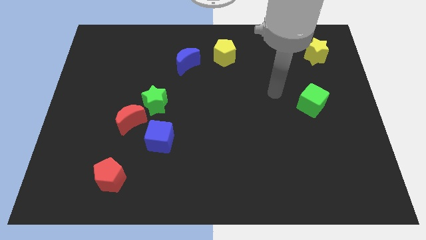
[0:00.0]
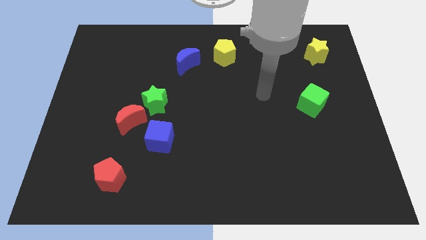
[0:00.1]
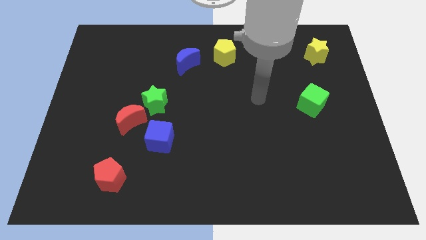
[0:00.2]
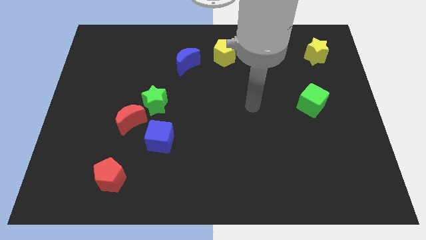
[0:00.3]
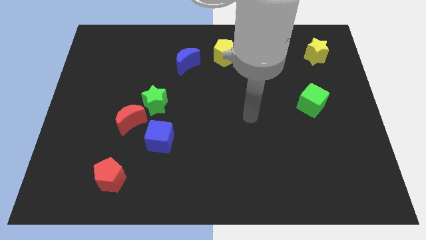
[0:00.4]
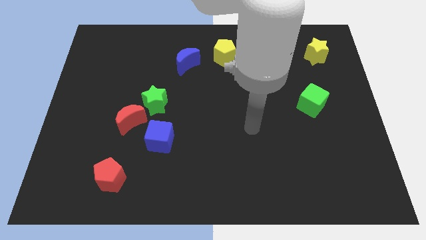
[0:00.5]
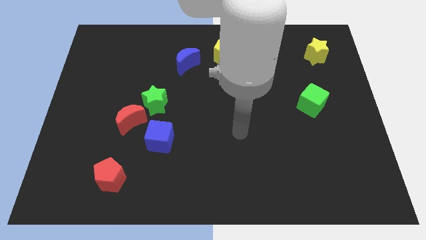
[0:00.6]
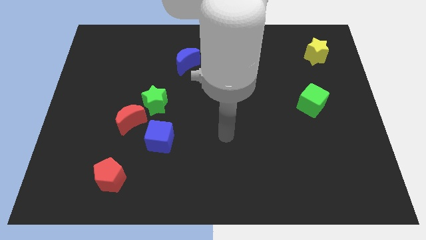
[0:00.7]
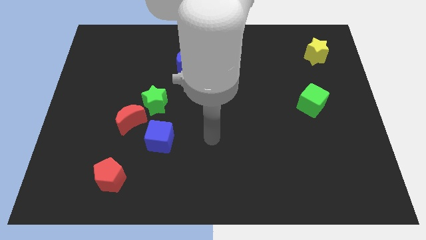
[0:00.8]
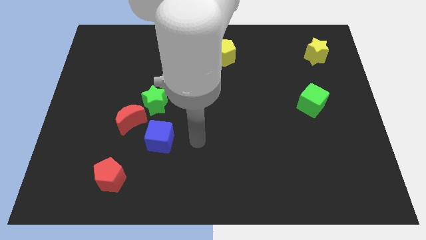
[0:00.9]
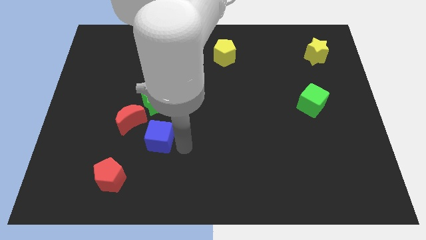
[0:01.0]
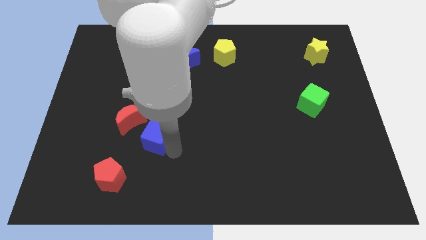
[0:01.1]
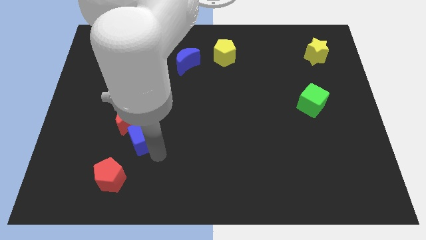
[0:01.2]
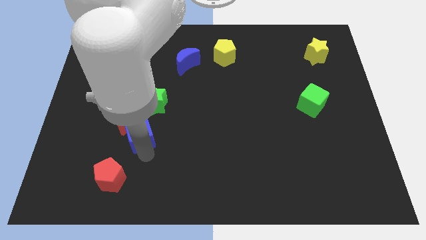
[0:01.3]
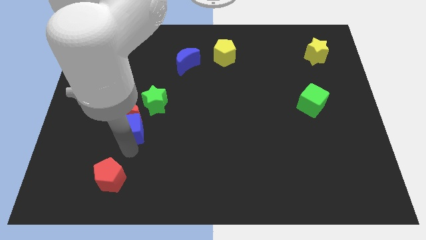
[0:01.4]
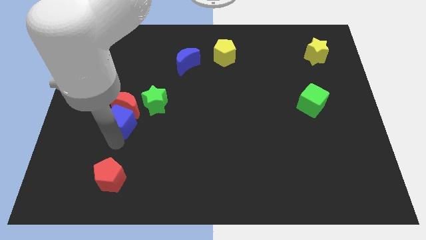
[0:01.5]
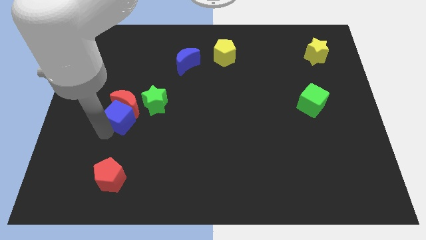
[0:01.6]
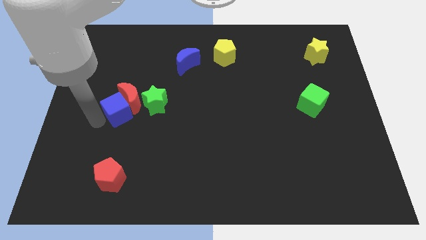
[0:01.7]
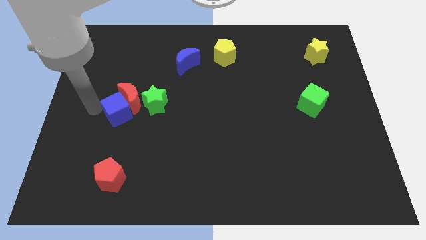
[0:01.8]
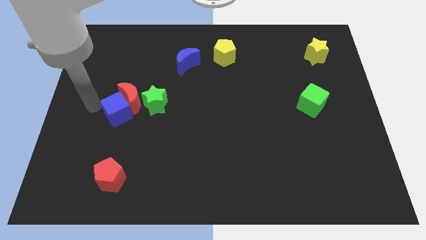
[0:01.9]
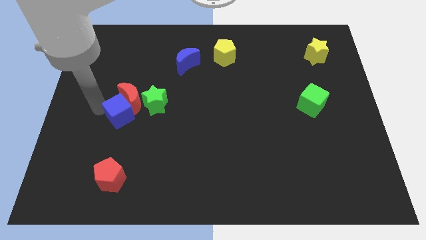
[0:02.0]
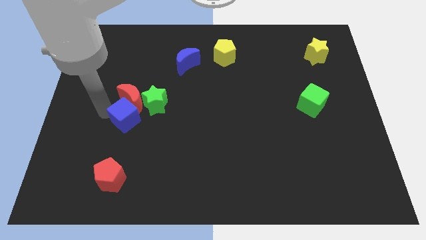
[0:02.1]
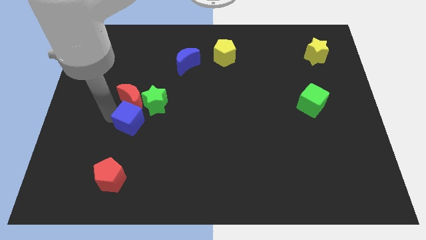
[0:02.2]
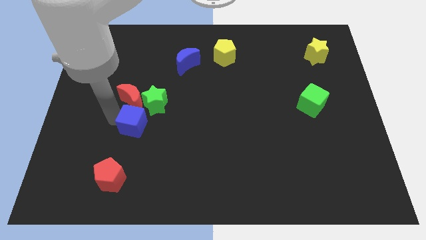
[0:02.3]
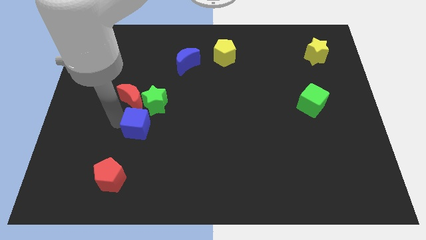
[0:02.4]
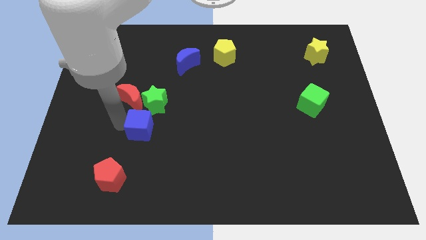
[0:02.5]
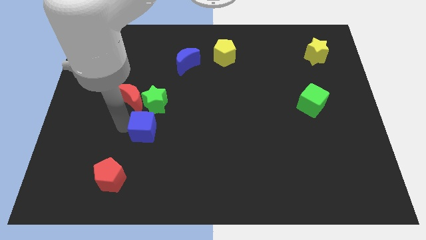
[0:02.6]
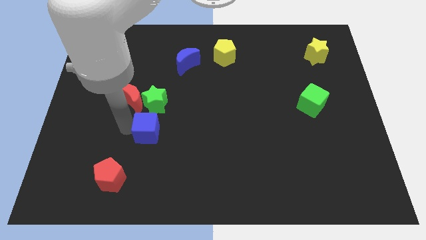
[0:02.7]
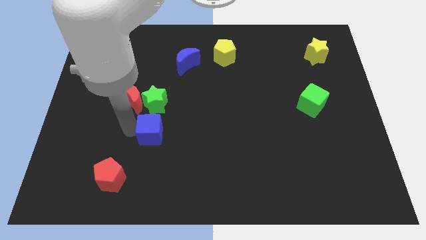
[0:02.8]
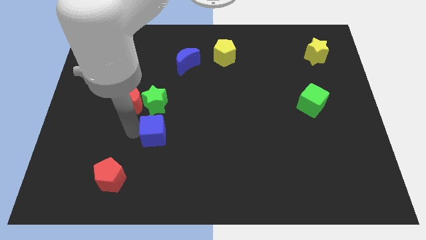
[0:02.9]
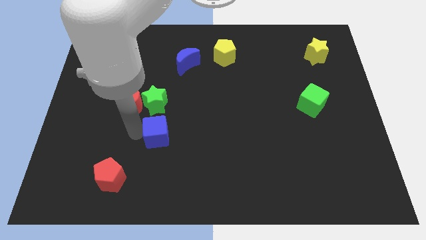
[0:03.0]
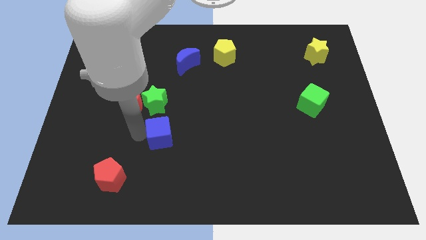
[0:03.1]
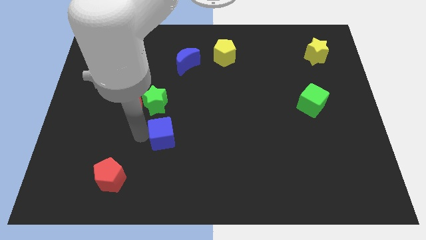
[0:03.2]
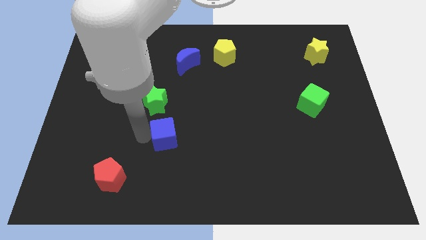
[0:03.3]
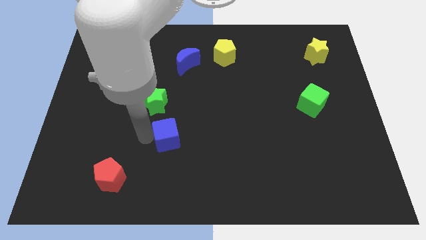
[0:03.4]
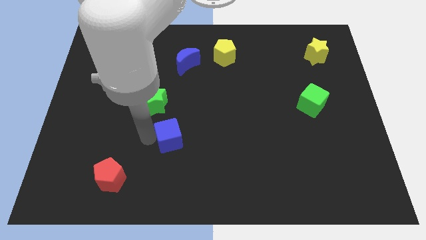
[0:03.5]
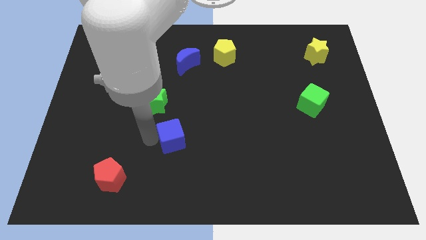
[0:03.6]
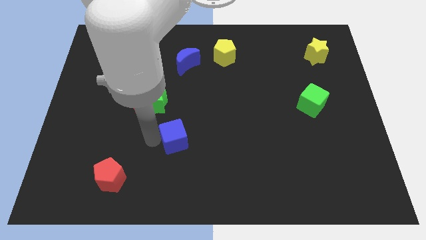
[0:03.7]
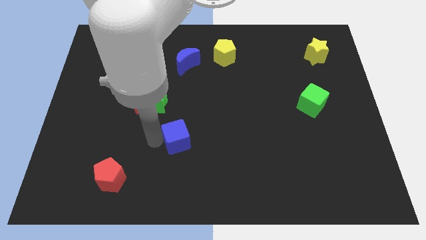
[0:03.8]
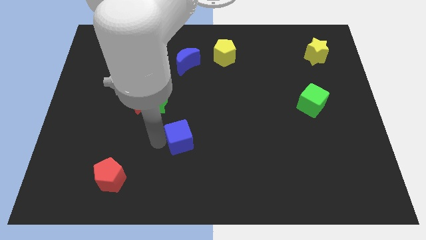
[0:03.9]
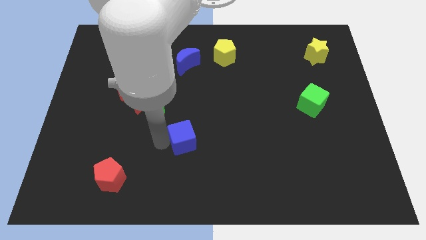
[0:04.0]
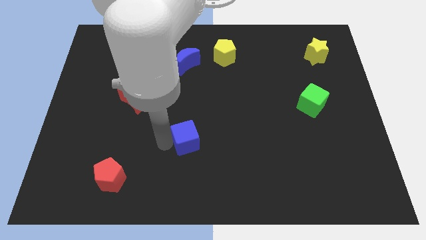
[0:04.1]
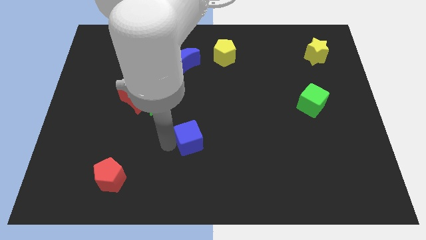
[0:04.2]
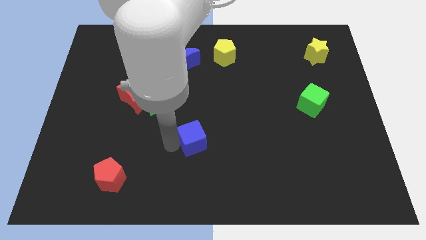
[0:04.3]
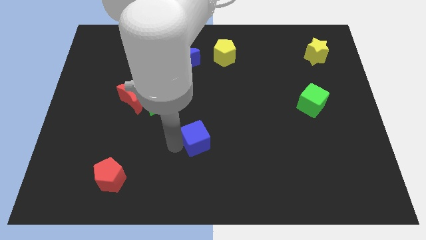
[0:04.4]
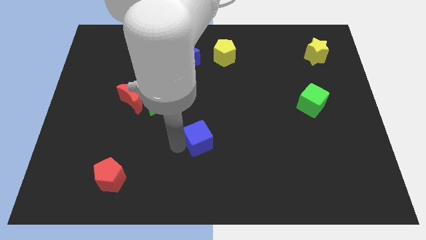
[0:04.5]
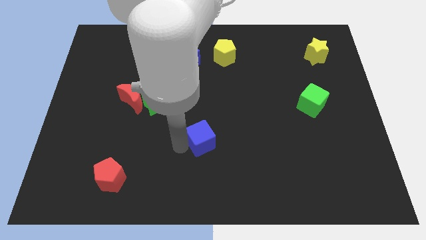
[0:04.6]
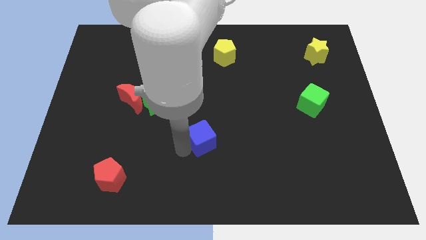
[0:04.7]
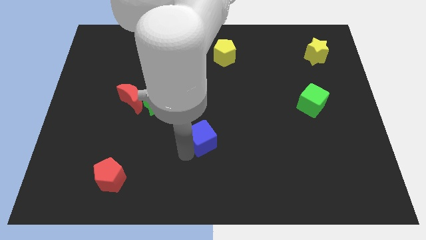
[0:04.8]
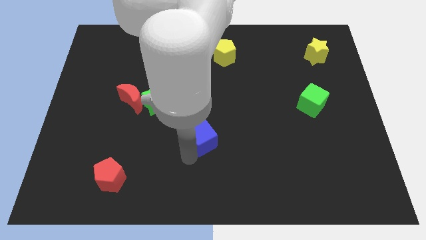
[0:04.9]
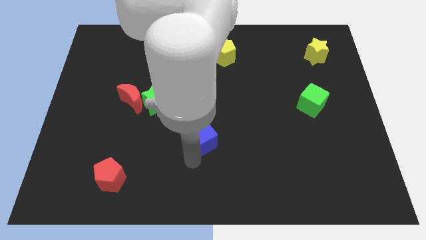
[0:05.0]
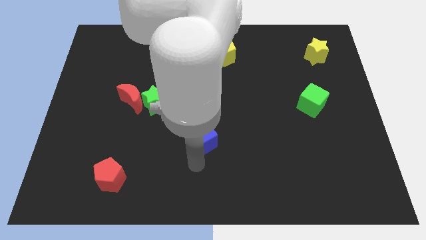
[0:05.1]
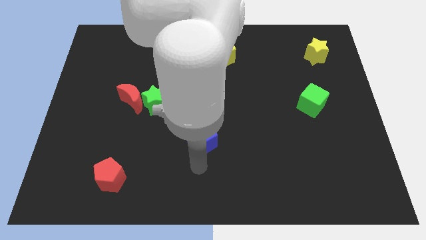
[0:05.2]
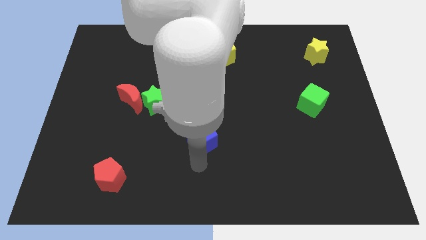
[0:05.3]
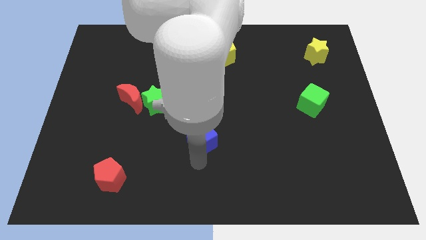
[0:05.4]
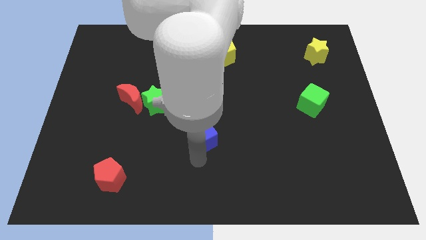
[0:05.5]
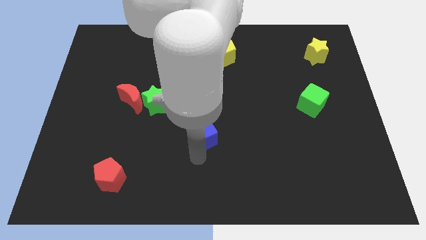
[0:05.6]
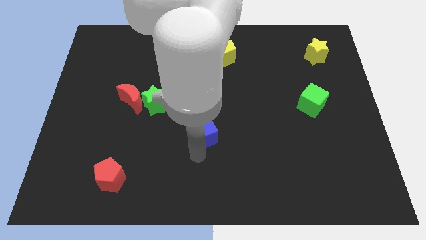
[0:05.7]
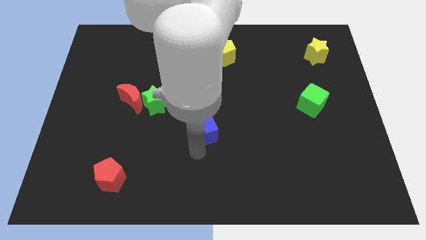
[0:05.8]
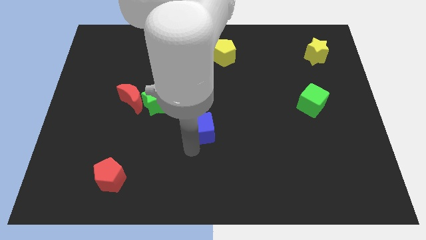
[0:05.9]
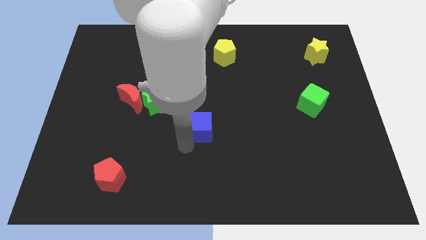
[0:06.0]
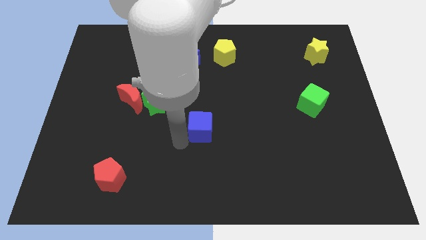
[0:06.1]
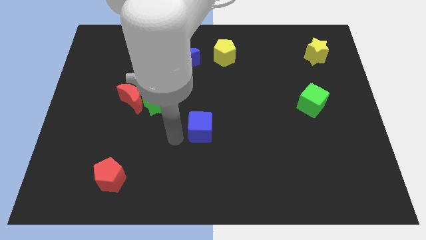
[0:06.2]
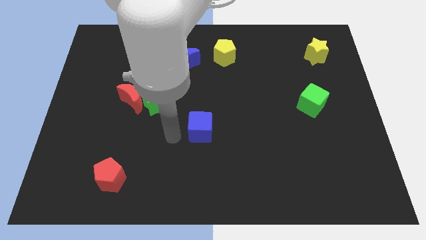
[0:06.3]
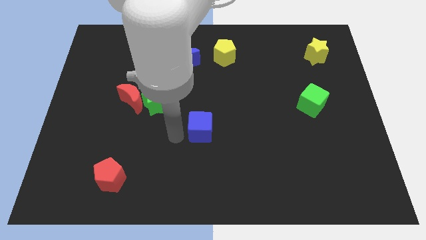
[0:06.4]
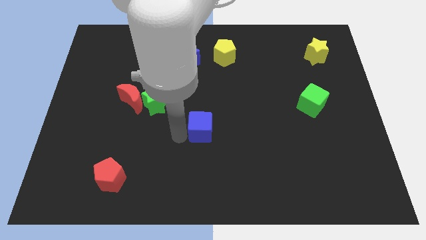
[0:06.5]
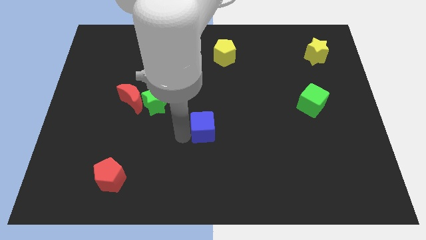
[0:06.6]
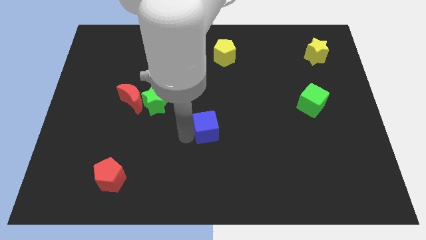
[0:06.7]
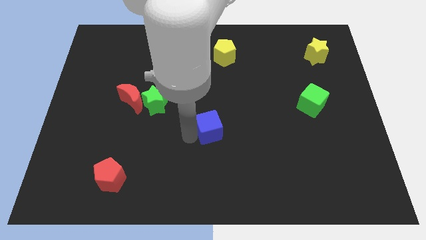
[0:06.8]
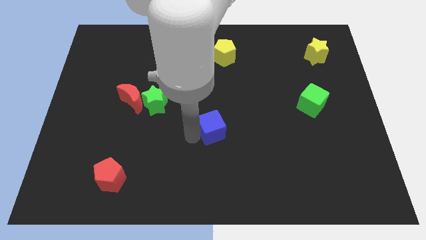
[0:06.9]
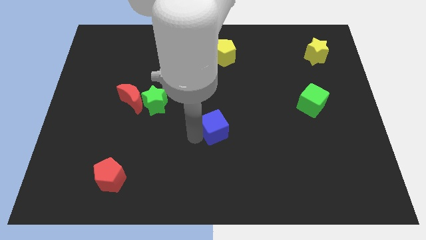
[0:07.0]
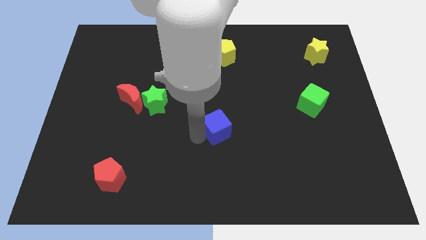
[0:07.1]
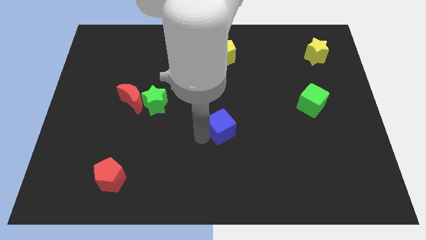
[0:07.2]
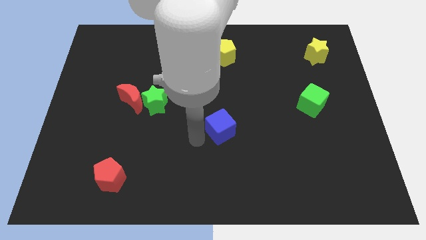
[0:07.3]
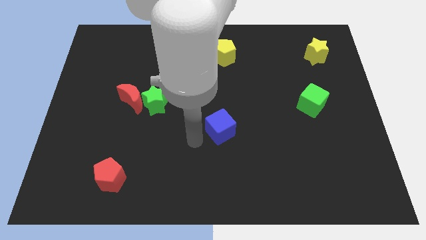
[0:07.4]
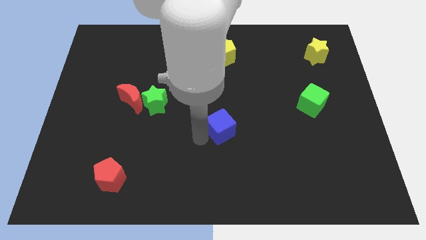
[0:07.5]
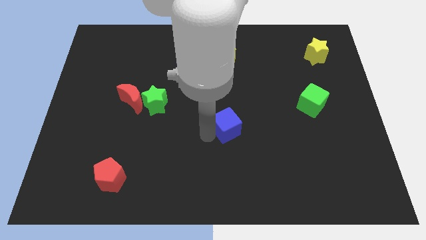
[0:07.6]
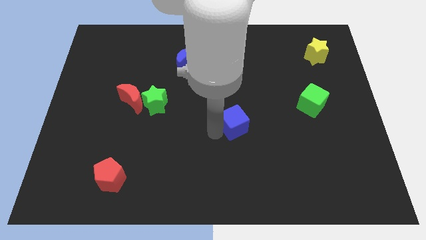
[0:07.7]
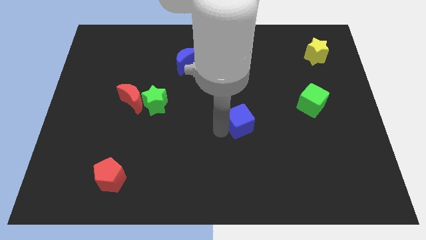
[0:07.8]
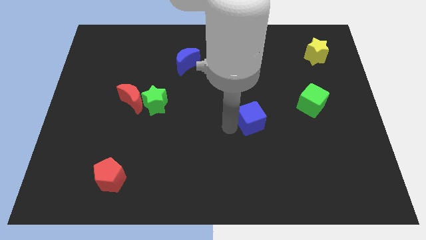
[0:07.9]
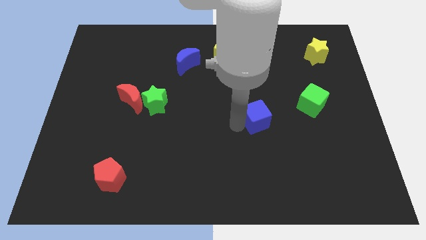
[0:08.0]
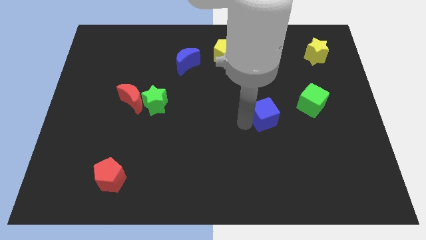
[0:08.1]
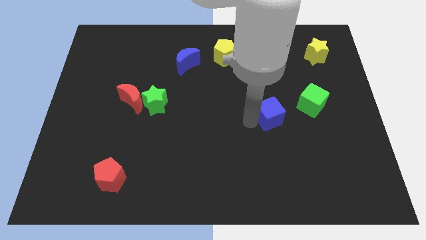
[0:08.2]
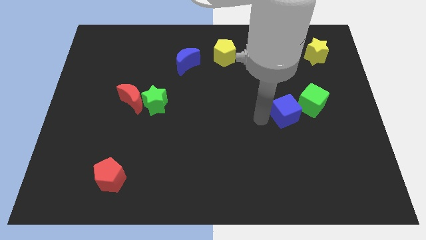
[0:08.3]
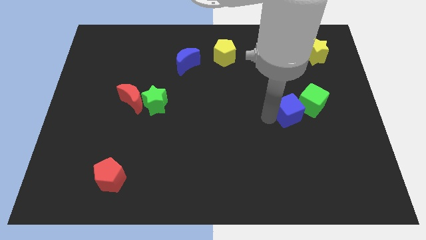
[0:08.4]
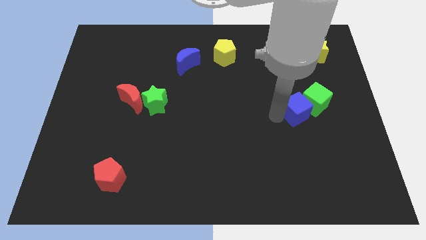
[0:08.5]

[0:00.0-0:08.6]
push the blue cube towards the green cube
